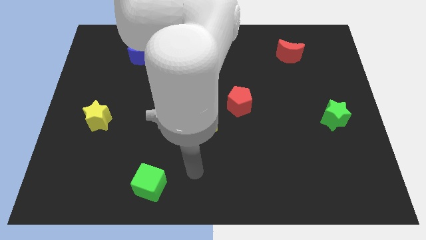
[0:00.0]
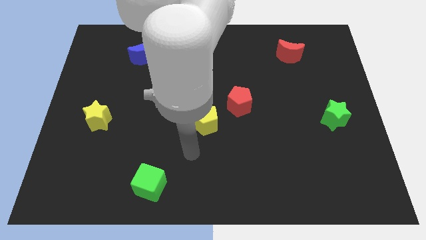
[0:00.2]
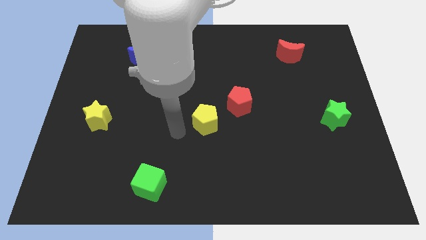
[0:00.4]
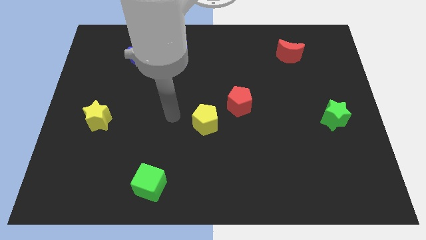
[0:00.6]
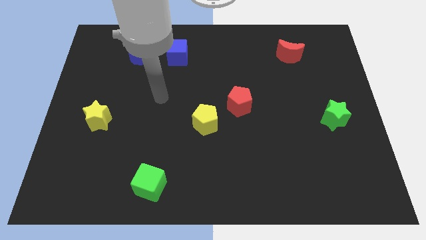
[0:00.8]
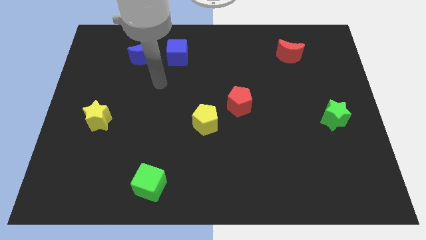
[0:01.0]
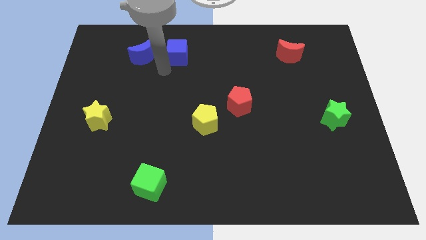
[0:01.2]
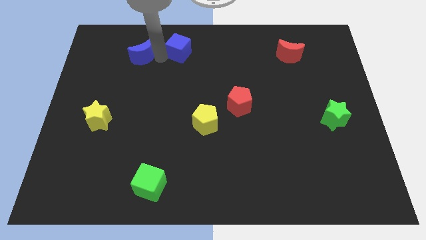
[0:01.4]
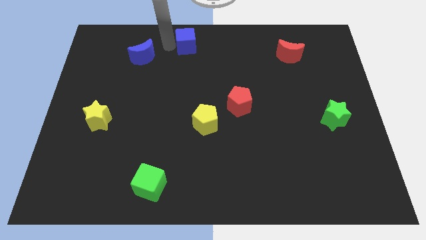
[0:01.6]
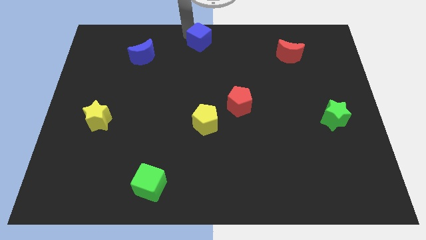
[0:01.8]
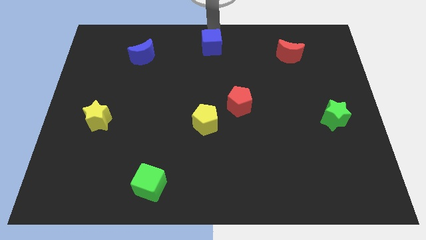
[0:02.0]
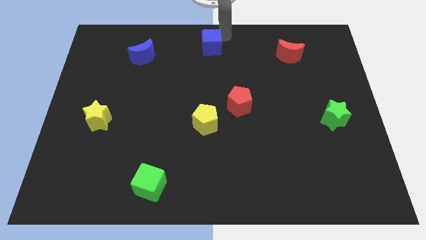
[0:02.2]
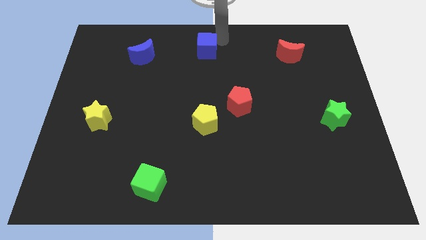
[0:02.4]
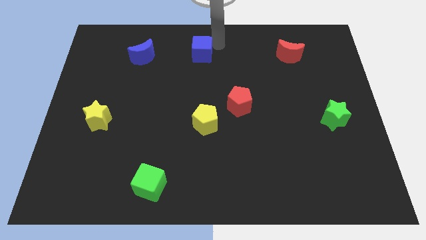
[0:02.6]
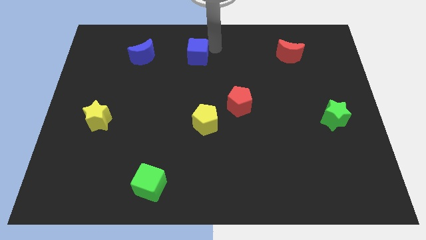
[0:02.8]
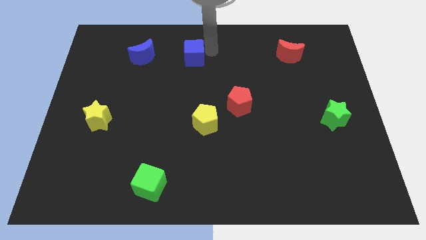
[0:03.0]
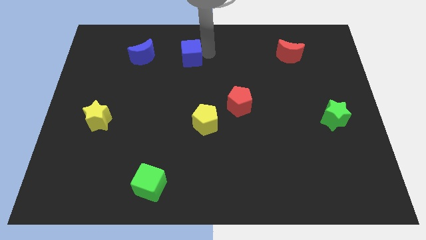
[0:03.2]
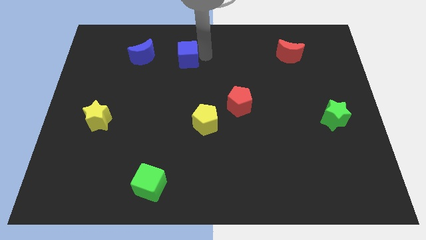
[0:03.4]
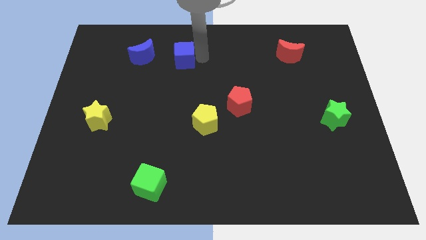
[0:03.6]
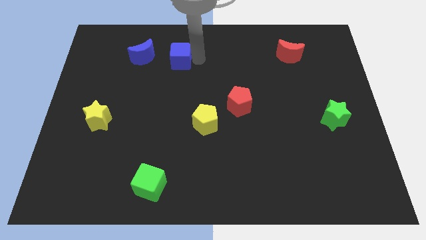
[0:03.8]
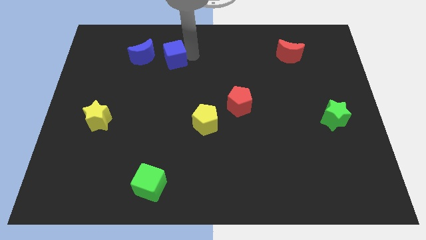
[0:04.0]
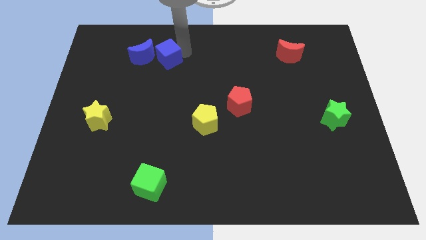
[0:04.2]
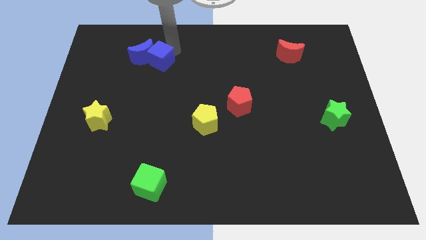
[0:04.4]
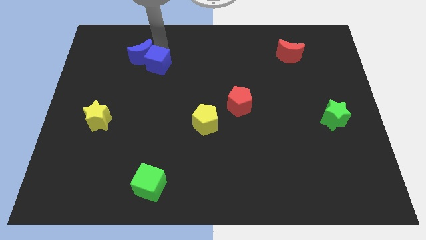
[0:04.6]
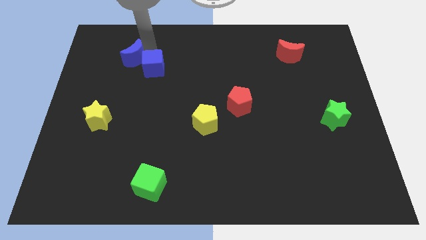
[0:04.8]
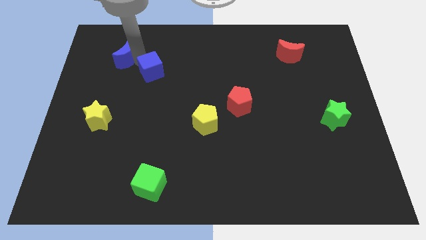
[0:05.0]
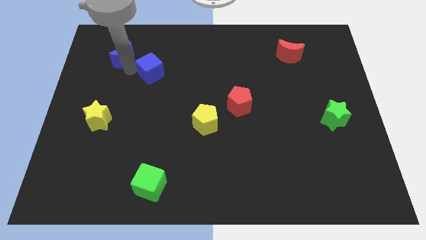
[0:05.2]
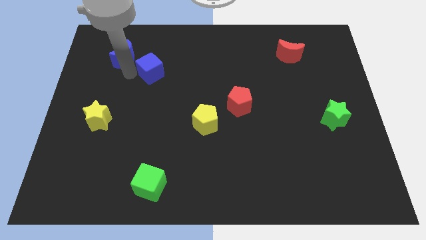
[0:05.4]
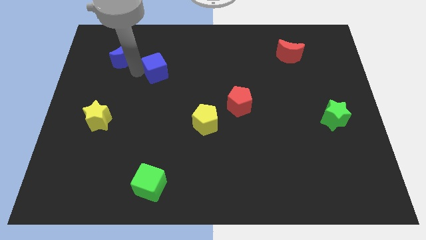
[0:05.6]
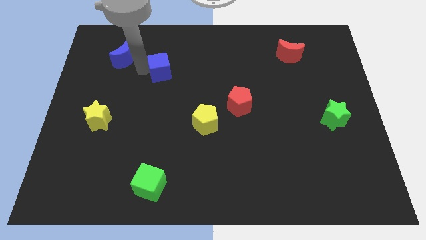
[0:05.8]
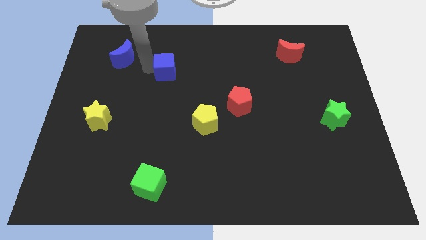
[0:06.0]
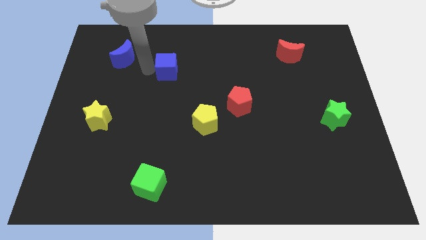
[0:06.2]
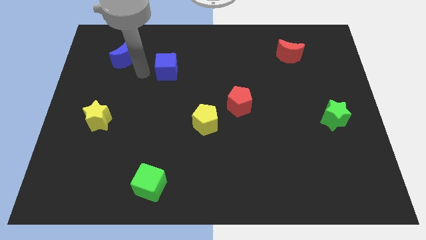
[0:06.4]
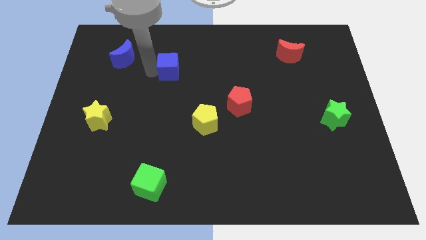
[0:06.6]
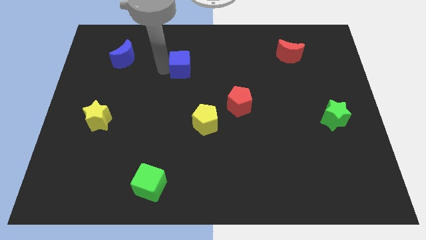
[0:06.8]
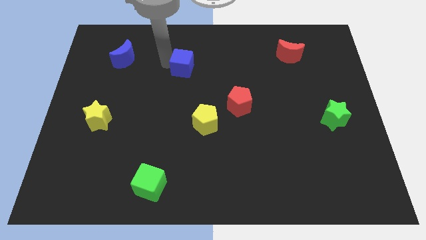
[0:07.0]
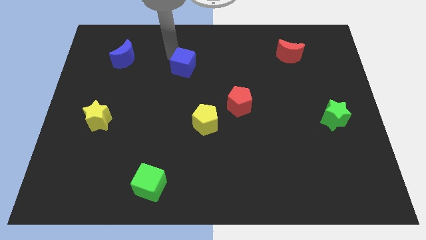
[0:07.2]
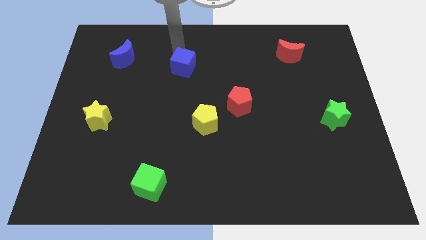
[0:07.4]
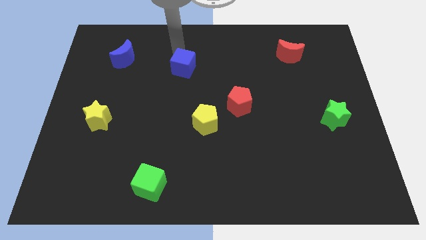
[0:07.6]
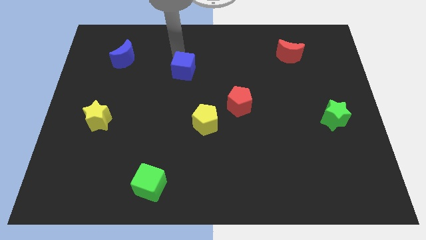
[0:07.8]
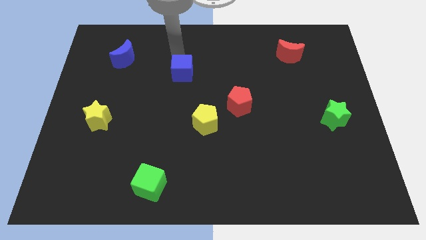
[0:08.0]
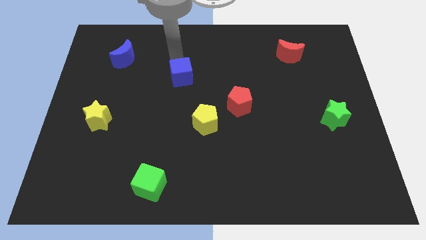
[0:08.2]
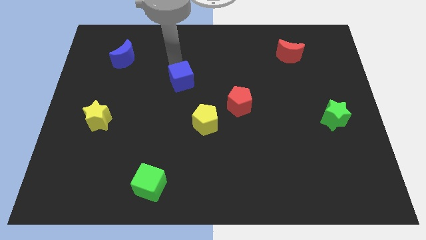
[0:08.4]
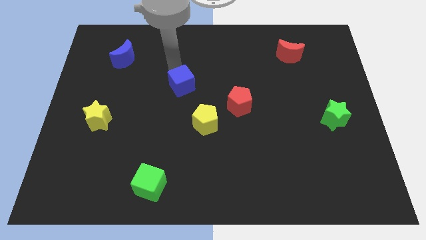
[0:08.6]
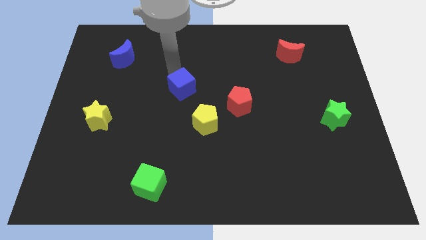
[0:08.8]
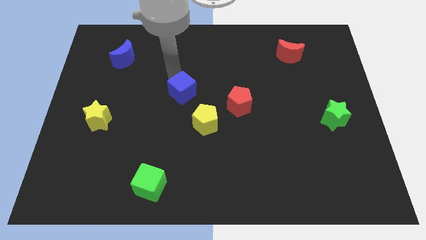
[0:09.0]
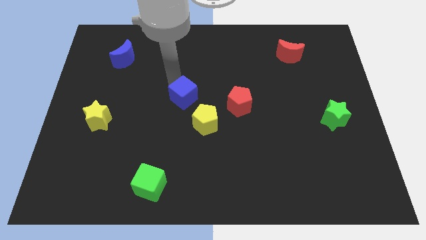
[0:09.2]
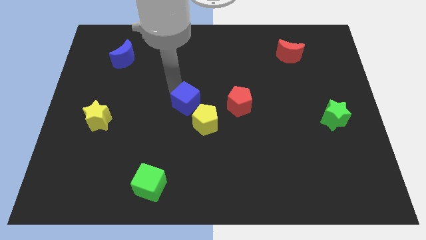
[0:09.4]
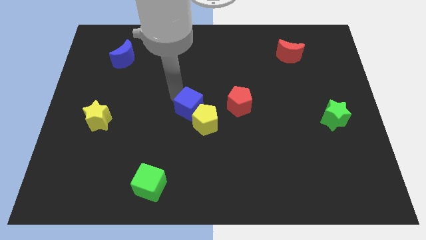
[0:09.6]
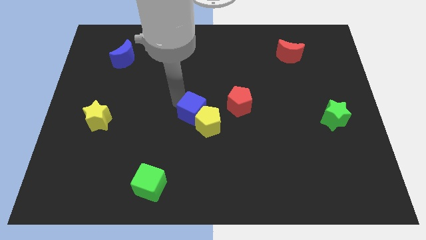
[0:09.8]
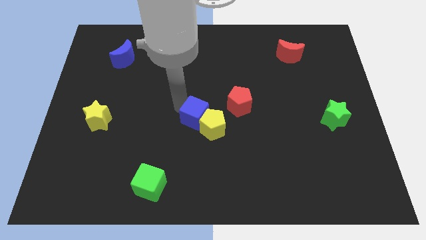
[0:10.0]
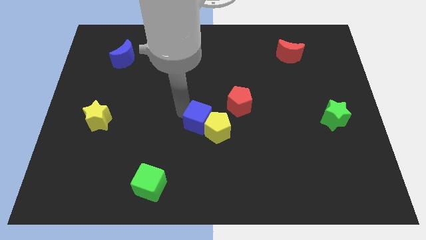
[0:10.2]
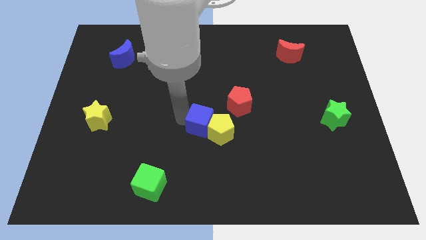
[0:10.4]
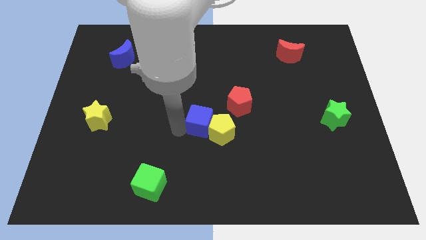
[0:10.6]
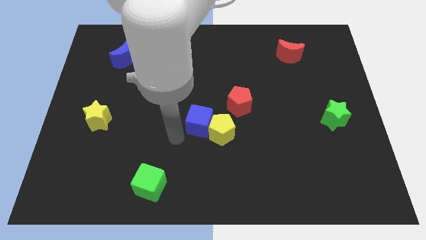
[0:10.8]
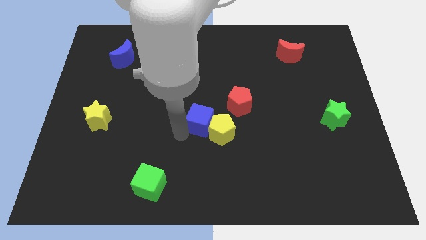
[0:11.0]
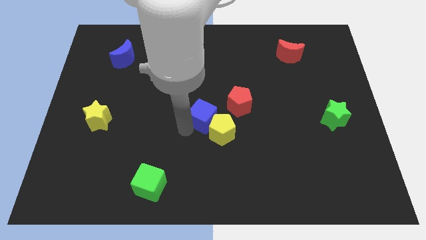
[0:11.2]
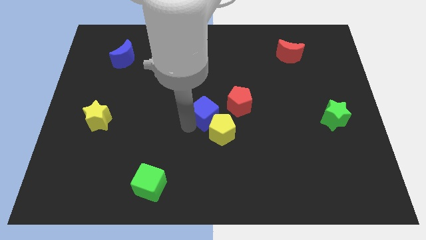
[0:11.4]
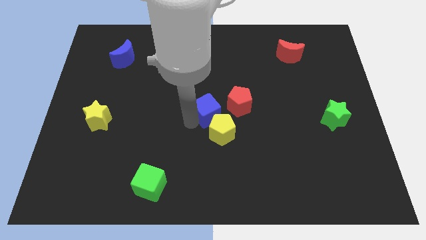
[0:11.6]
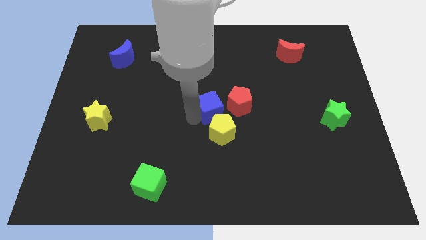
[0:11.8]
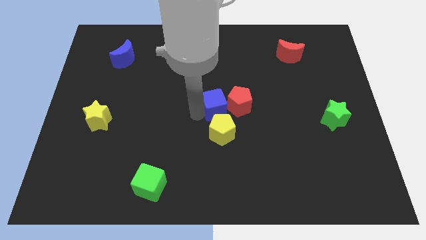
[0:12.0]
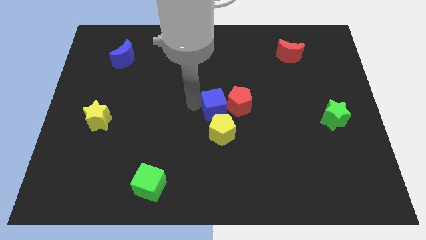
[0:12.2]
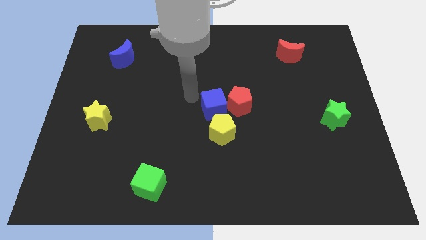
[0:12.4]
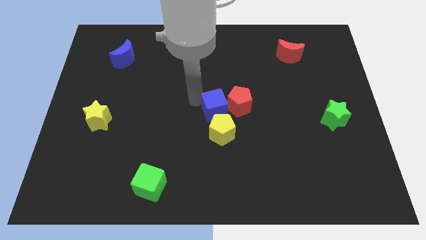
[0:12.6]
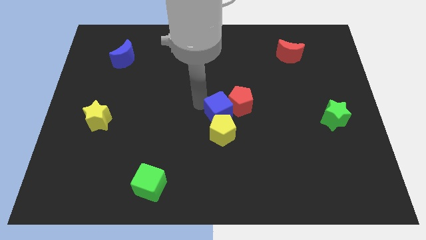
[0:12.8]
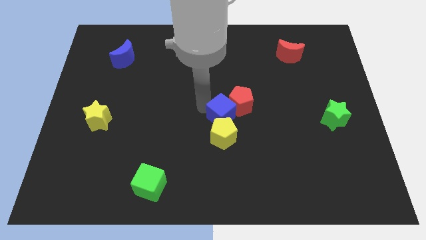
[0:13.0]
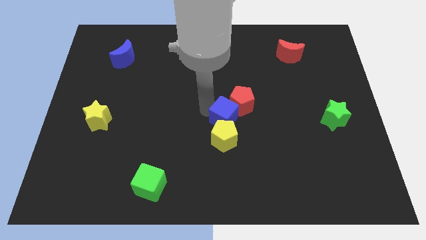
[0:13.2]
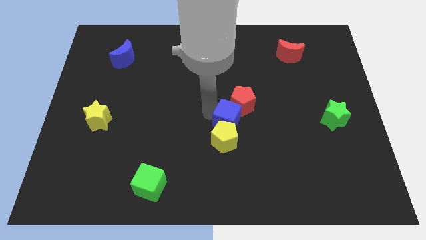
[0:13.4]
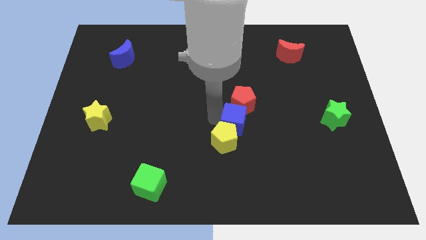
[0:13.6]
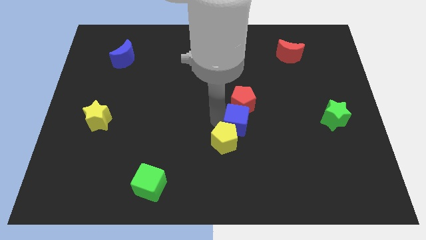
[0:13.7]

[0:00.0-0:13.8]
put the blue cube to the bottom right of the red pentagon
